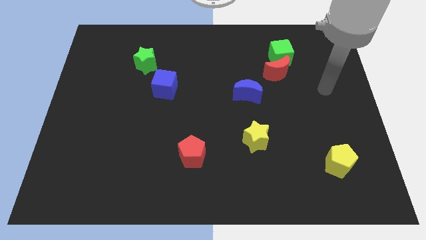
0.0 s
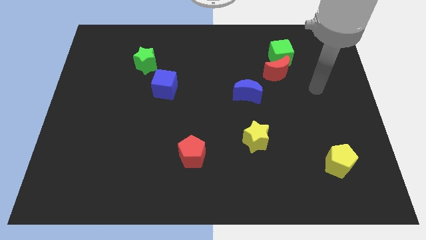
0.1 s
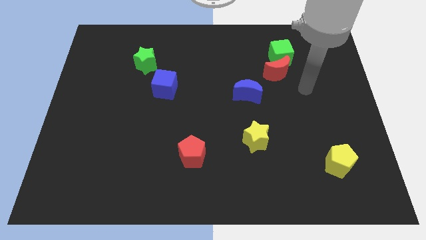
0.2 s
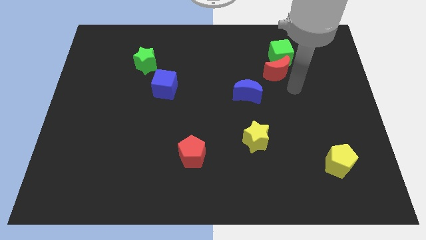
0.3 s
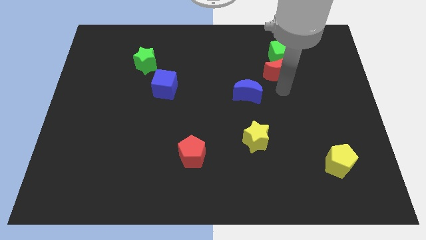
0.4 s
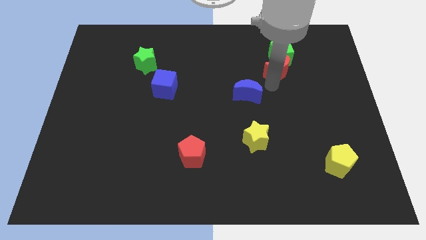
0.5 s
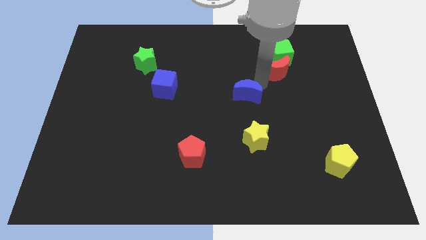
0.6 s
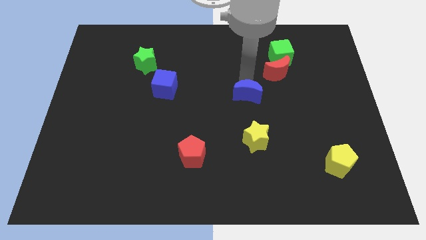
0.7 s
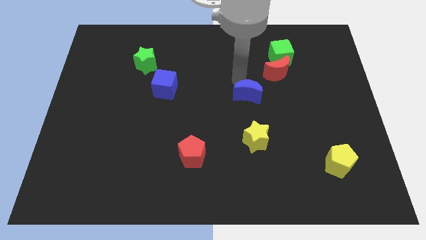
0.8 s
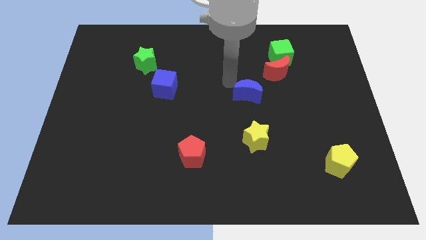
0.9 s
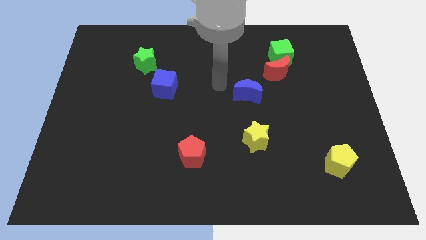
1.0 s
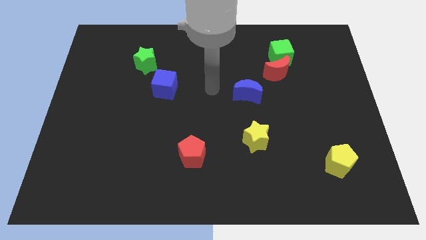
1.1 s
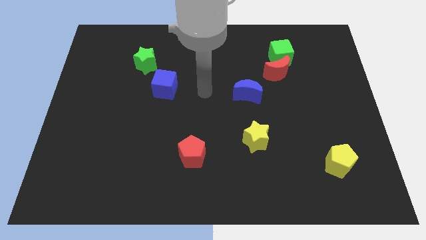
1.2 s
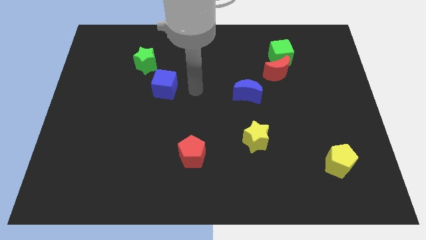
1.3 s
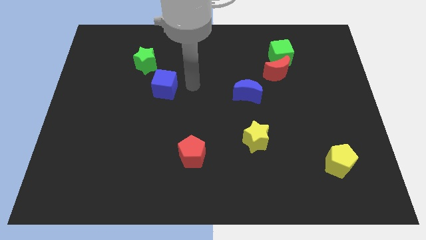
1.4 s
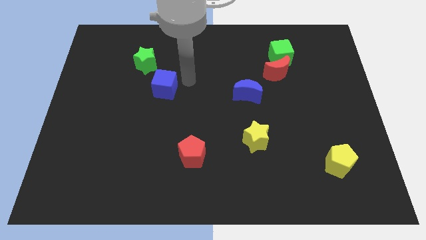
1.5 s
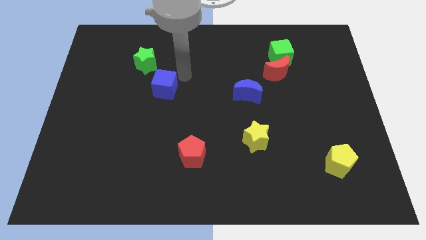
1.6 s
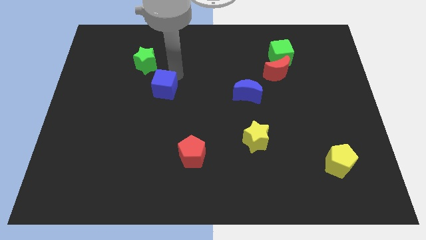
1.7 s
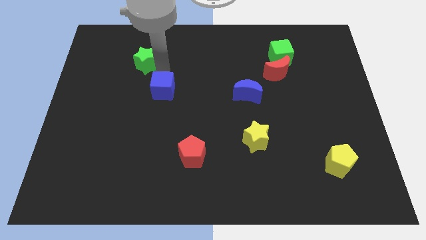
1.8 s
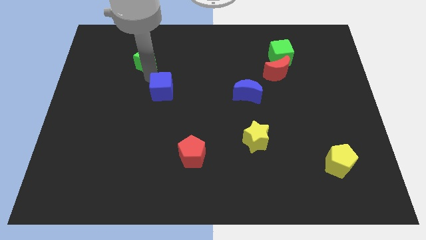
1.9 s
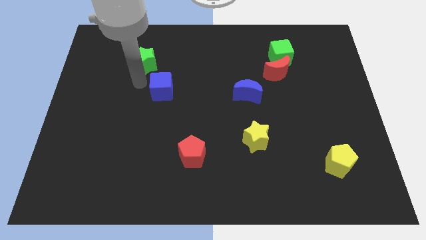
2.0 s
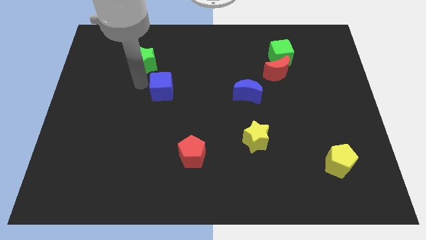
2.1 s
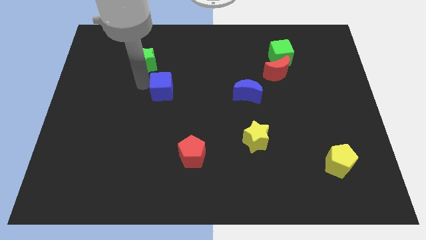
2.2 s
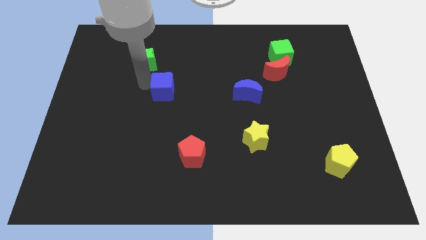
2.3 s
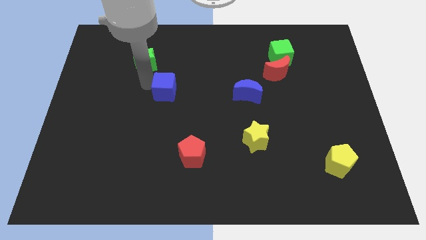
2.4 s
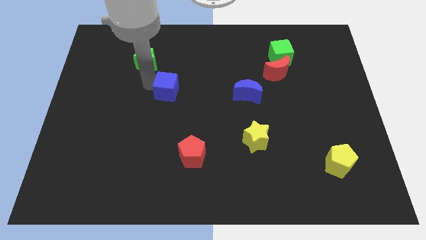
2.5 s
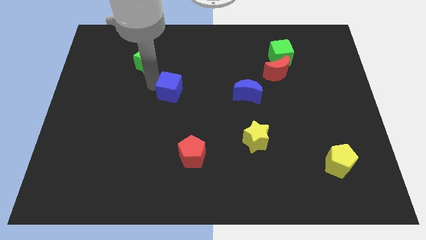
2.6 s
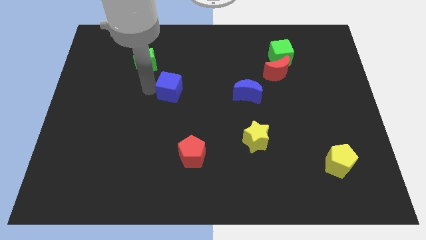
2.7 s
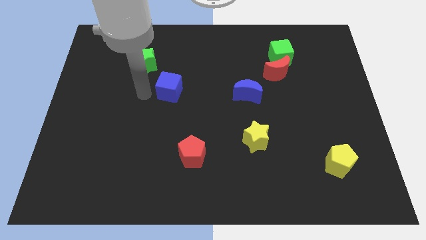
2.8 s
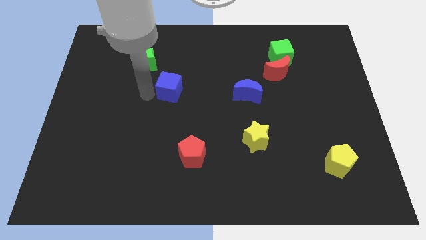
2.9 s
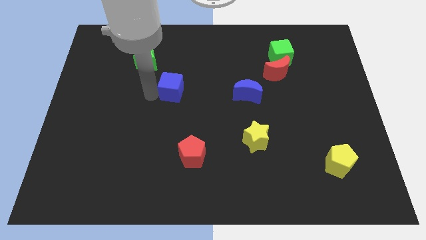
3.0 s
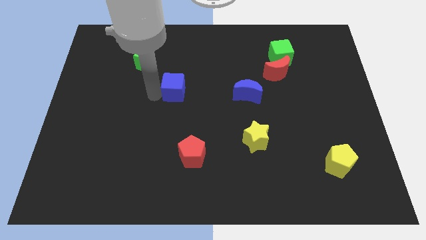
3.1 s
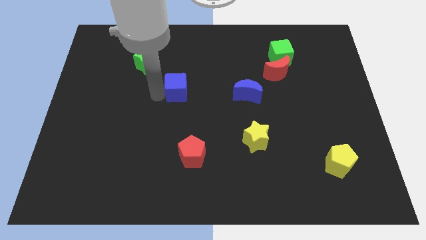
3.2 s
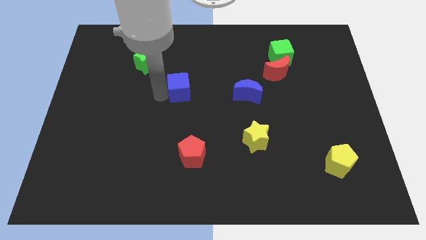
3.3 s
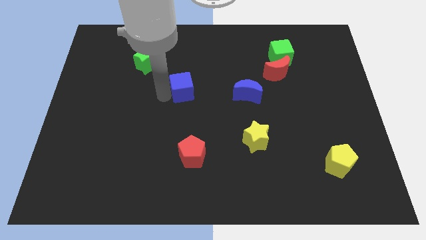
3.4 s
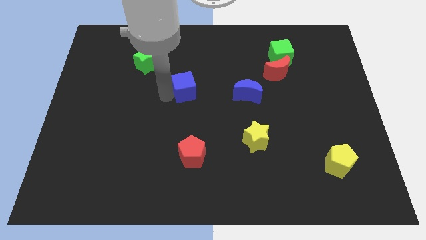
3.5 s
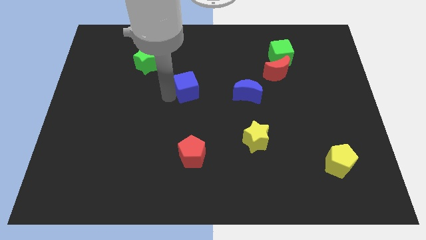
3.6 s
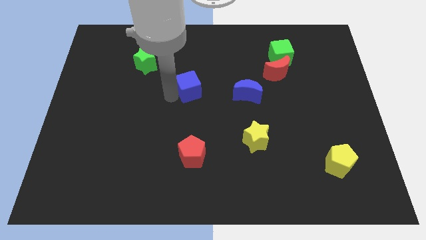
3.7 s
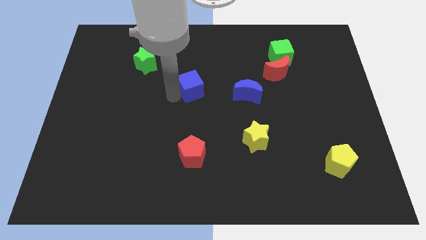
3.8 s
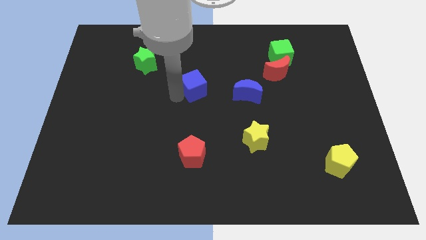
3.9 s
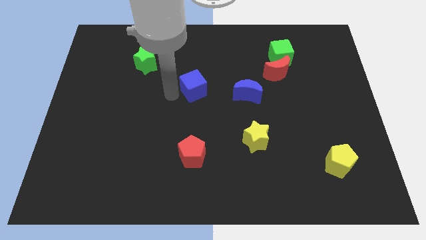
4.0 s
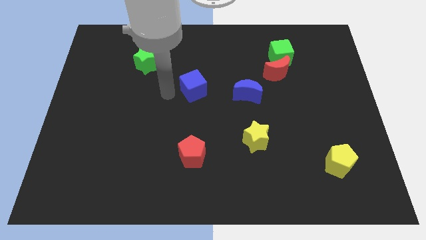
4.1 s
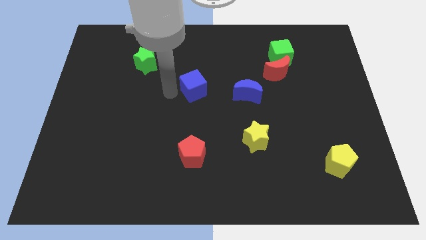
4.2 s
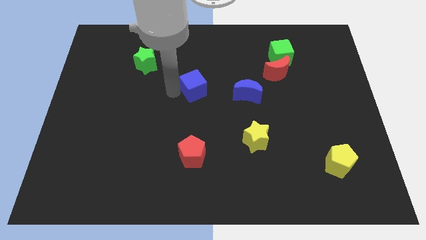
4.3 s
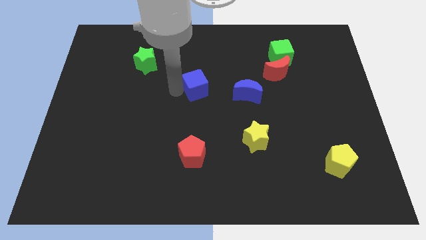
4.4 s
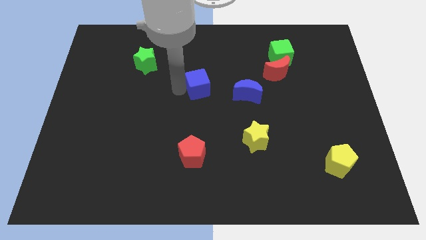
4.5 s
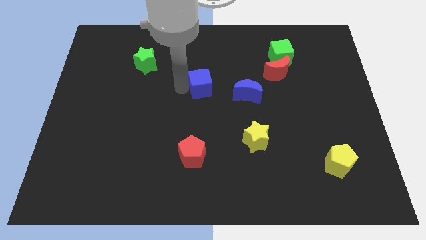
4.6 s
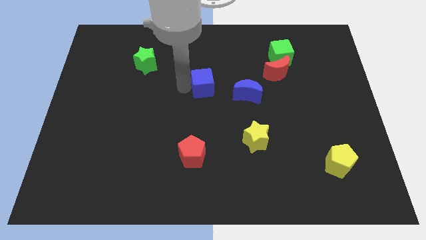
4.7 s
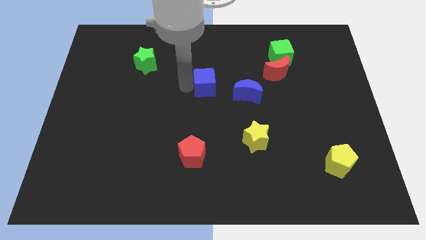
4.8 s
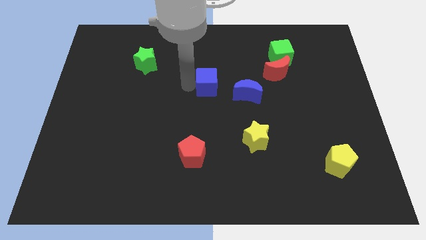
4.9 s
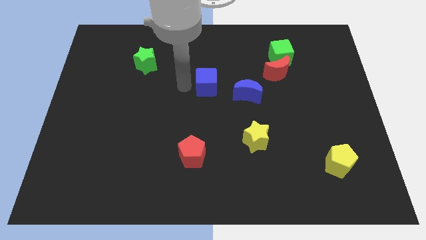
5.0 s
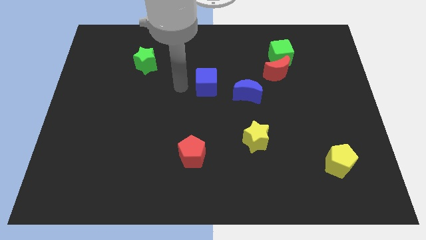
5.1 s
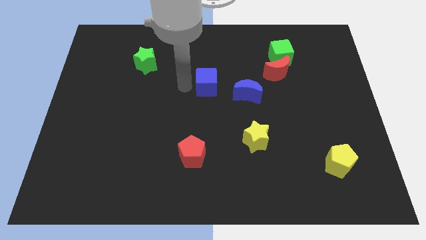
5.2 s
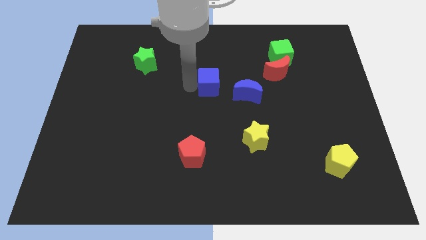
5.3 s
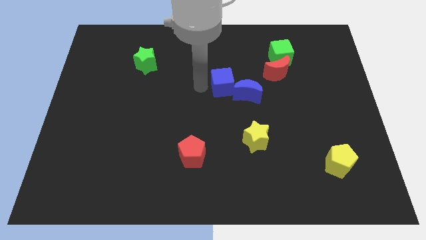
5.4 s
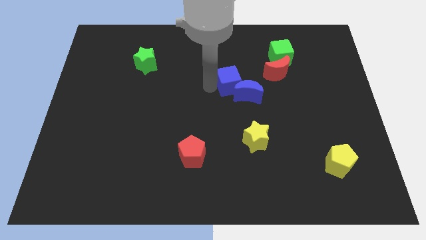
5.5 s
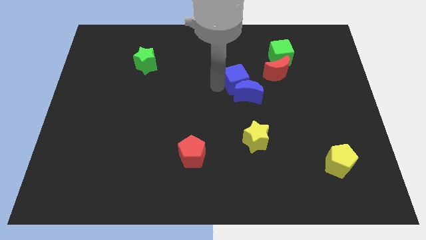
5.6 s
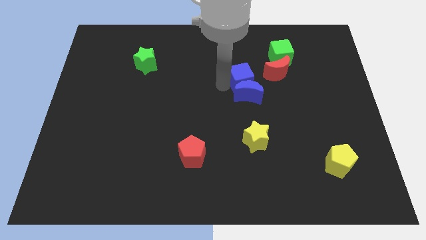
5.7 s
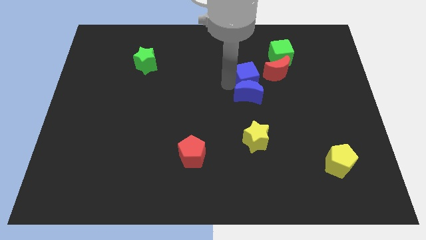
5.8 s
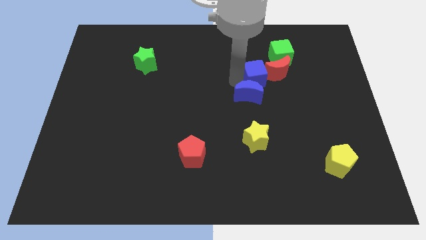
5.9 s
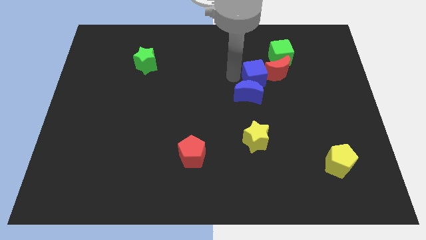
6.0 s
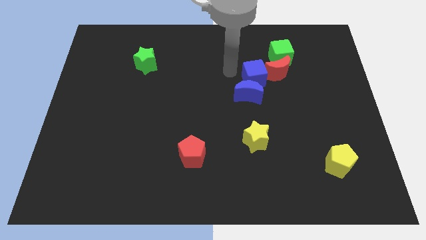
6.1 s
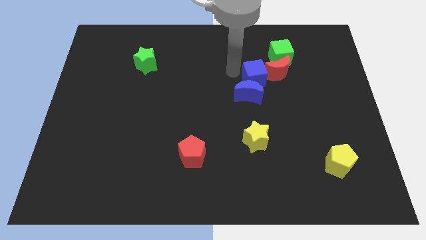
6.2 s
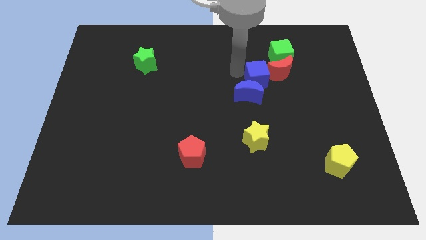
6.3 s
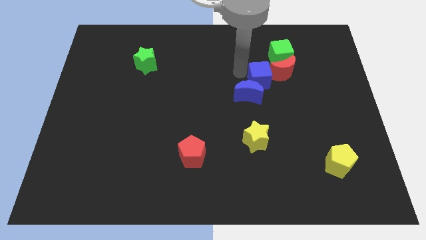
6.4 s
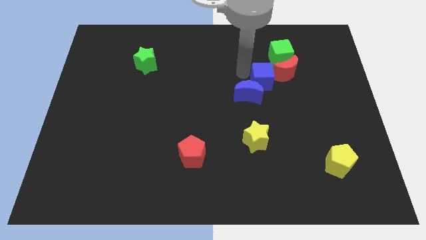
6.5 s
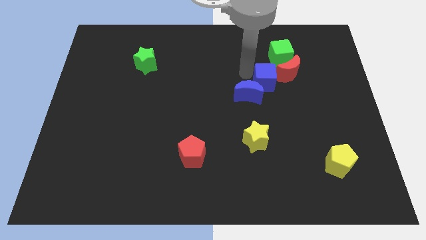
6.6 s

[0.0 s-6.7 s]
put the blue cube to the bottom side of the green cube

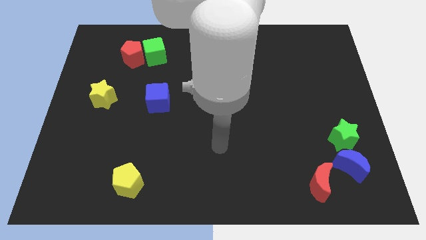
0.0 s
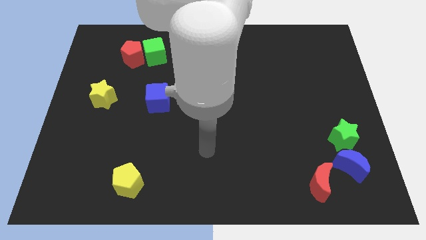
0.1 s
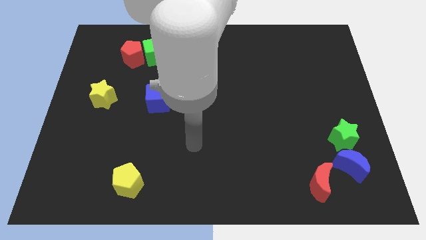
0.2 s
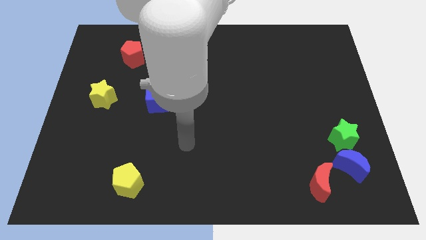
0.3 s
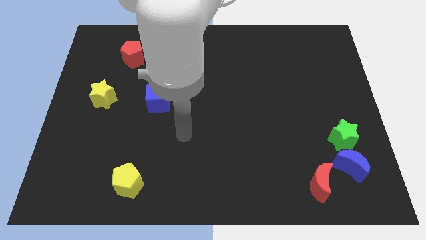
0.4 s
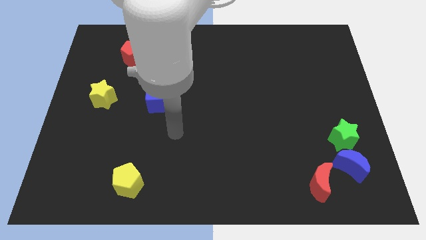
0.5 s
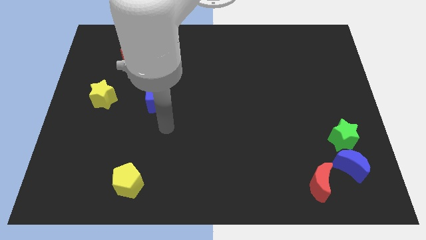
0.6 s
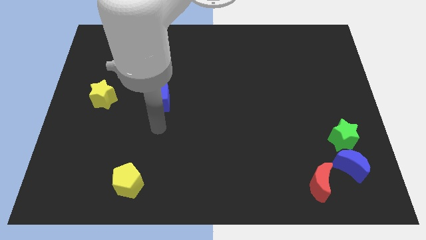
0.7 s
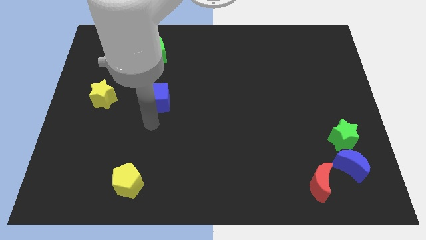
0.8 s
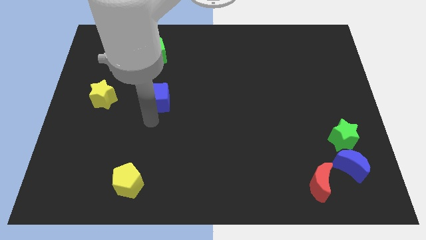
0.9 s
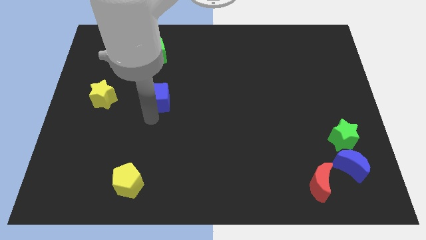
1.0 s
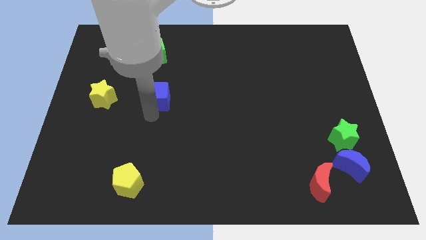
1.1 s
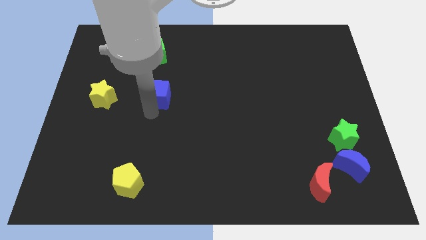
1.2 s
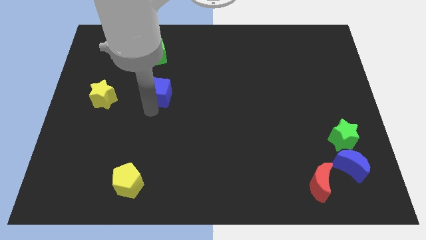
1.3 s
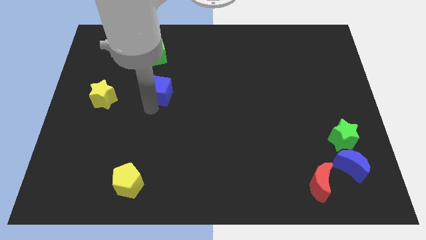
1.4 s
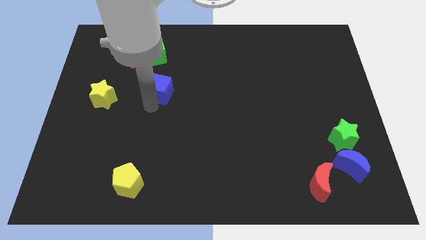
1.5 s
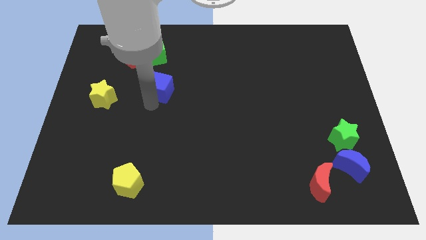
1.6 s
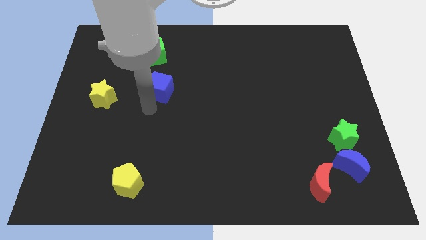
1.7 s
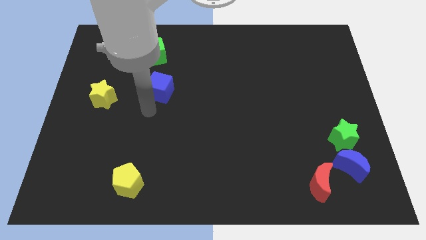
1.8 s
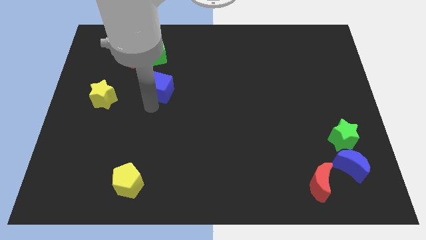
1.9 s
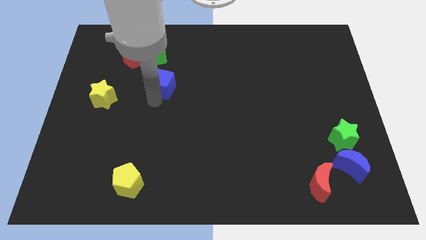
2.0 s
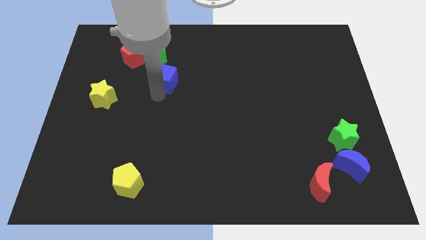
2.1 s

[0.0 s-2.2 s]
put the blue cube to the bottom right side of the green cube
